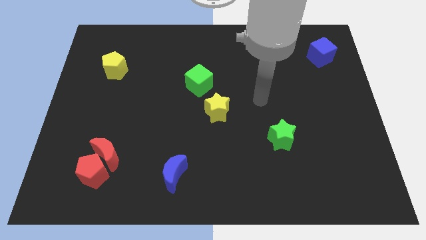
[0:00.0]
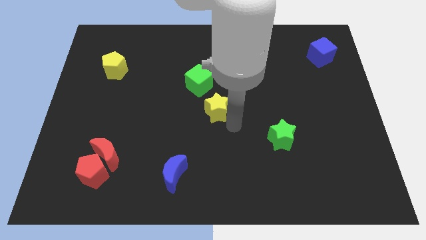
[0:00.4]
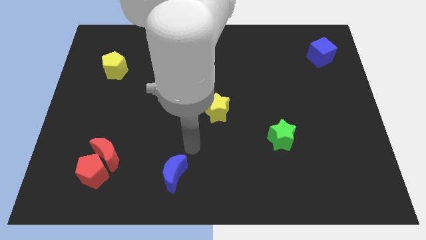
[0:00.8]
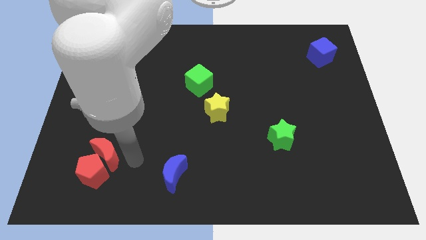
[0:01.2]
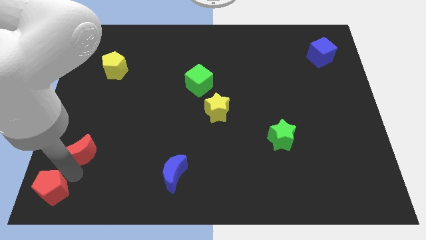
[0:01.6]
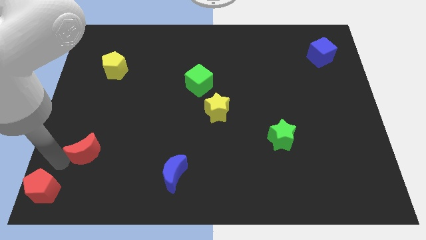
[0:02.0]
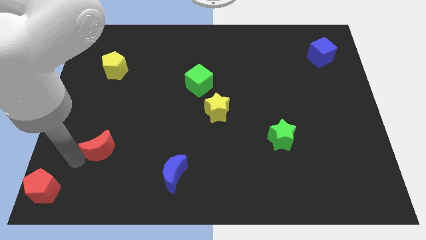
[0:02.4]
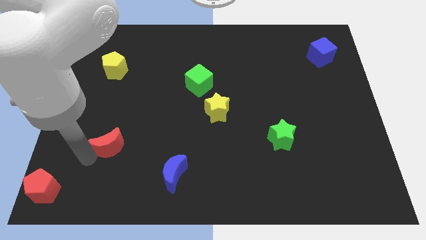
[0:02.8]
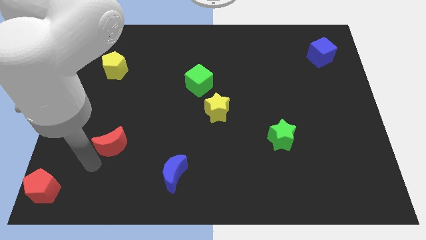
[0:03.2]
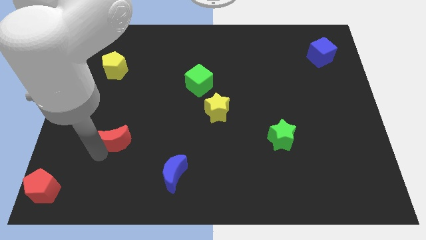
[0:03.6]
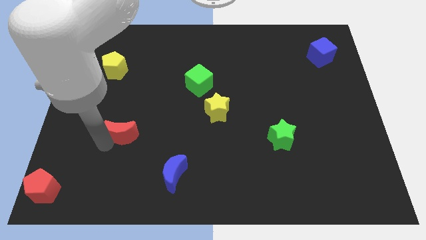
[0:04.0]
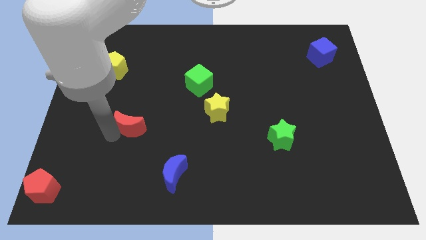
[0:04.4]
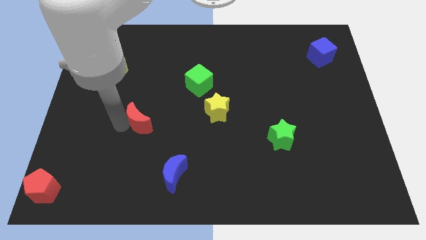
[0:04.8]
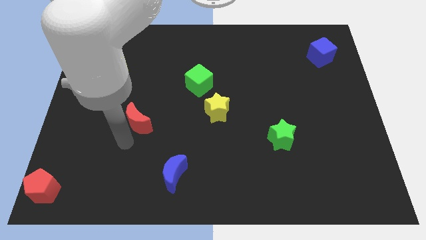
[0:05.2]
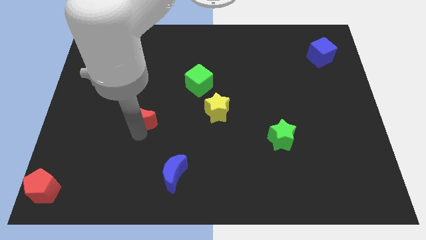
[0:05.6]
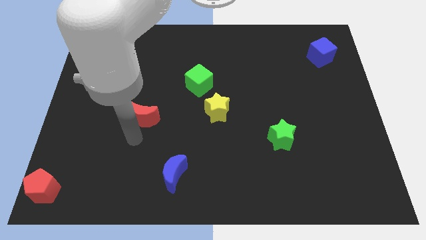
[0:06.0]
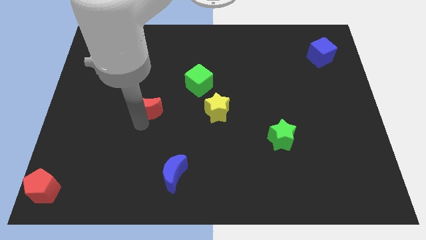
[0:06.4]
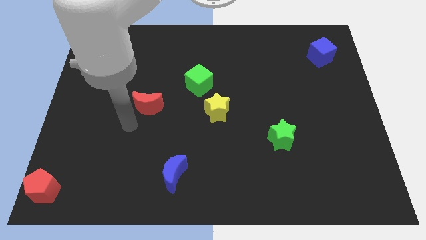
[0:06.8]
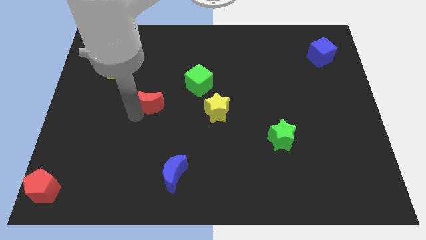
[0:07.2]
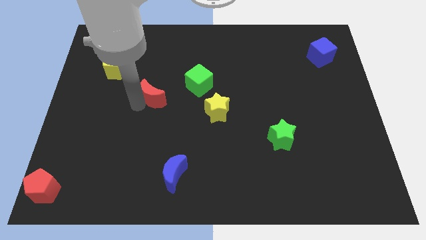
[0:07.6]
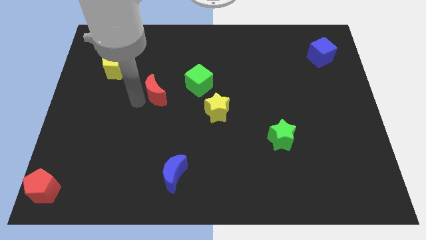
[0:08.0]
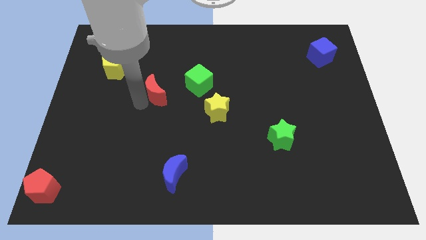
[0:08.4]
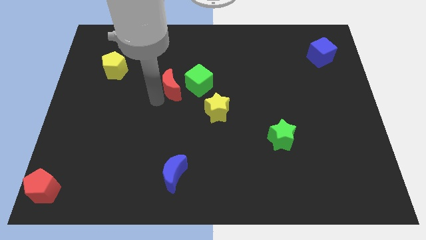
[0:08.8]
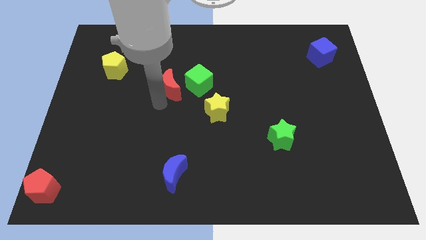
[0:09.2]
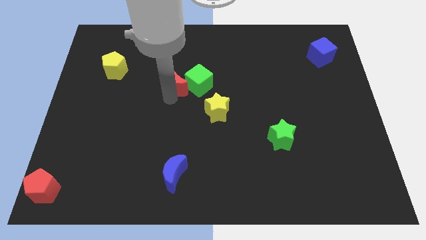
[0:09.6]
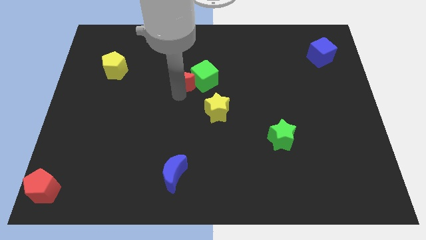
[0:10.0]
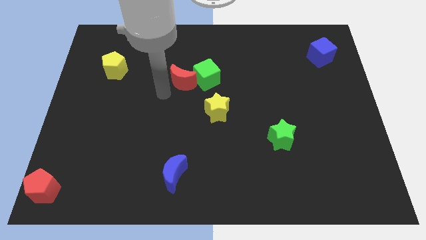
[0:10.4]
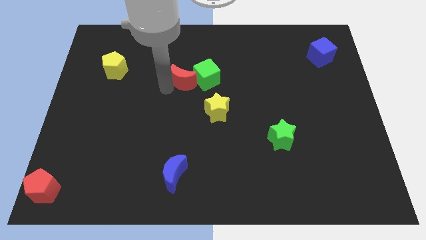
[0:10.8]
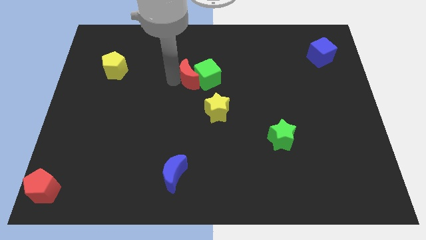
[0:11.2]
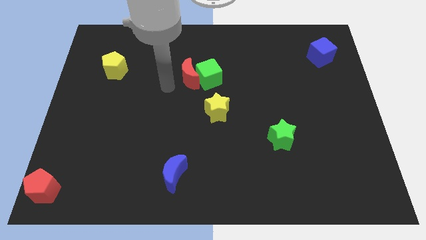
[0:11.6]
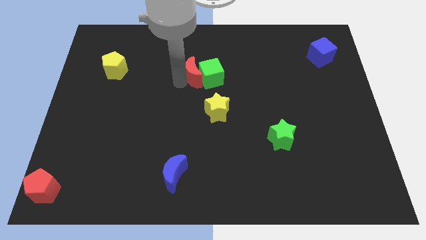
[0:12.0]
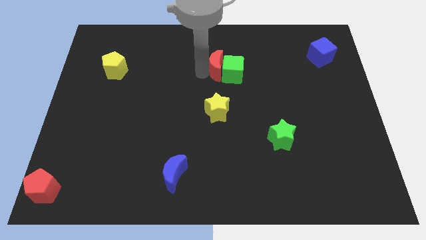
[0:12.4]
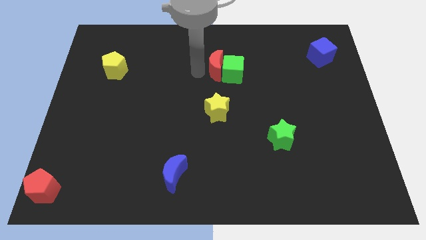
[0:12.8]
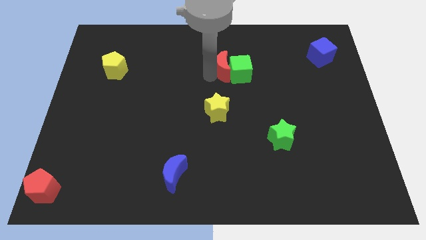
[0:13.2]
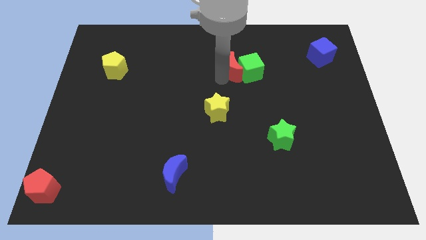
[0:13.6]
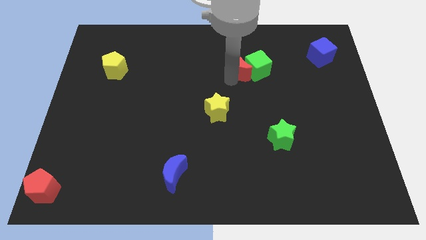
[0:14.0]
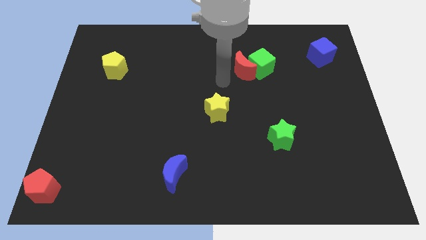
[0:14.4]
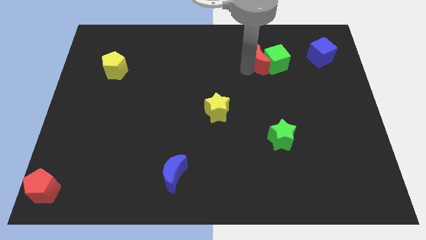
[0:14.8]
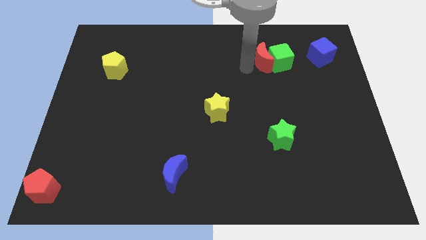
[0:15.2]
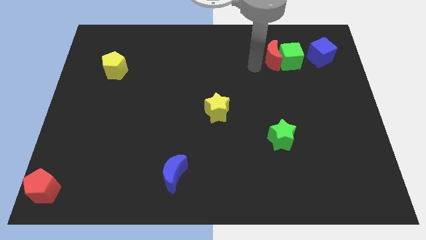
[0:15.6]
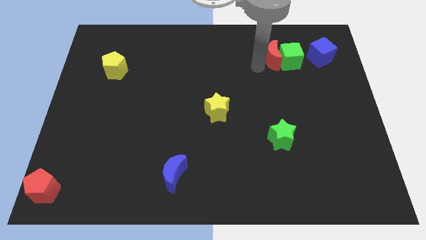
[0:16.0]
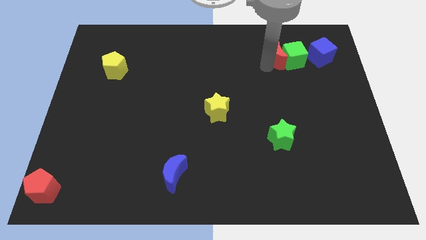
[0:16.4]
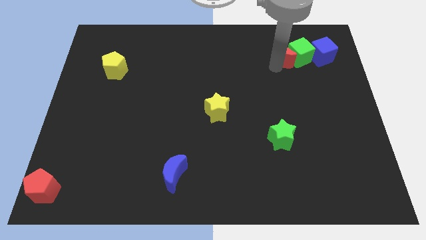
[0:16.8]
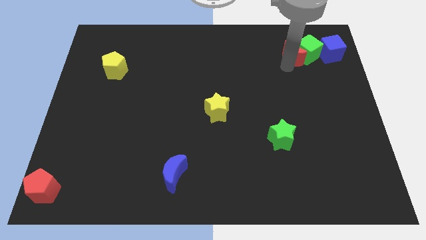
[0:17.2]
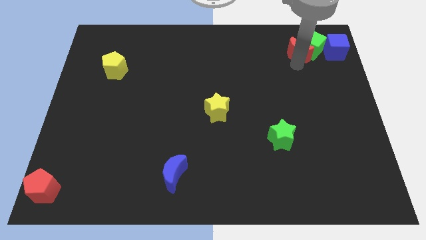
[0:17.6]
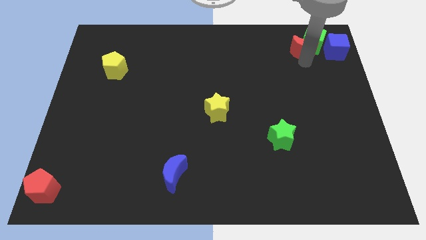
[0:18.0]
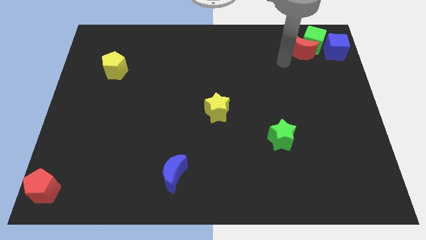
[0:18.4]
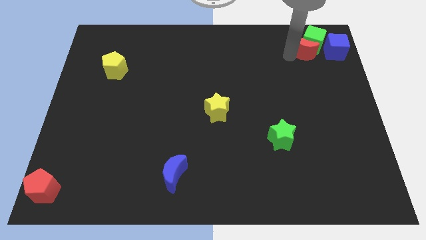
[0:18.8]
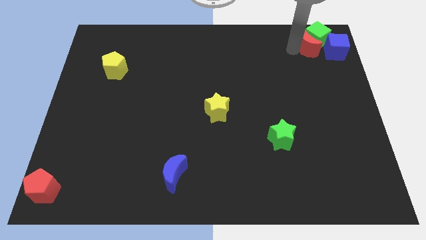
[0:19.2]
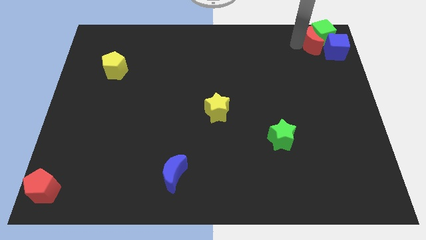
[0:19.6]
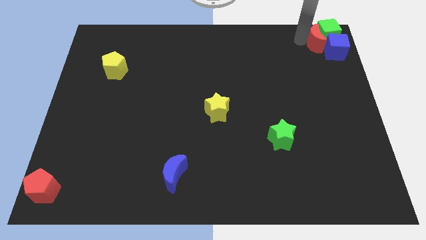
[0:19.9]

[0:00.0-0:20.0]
put the red moon to the top right corner

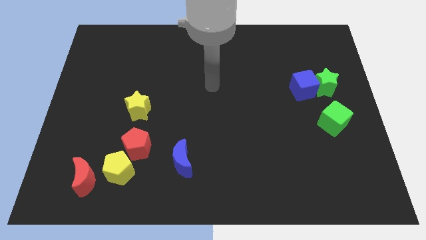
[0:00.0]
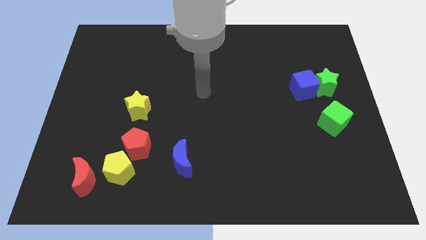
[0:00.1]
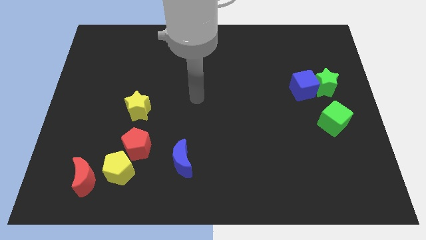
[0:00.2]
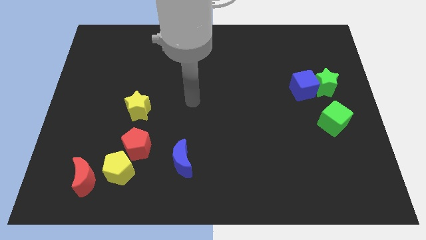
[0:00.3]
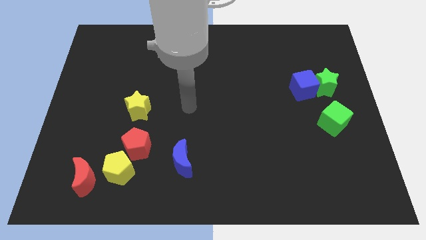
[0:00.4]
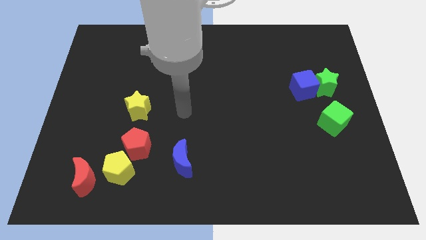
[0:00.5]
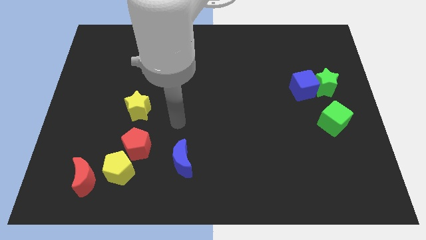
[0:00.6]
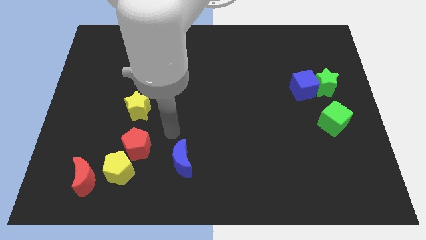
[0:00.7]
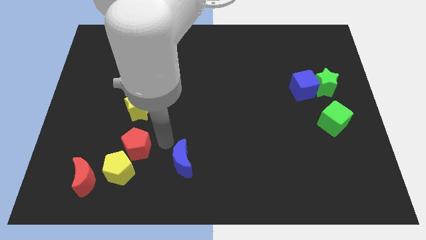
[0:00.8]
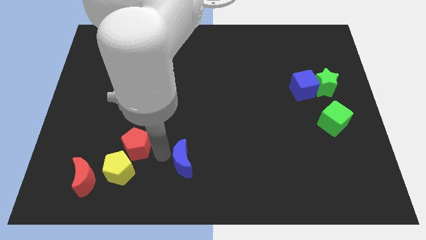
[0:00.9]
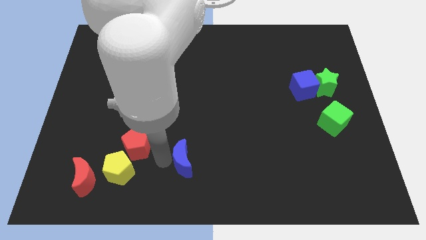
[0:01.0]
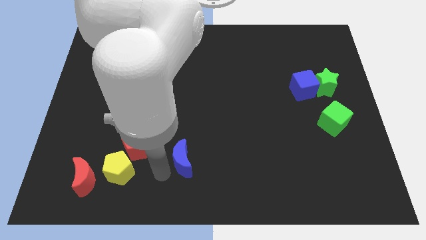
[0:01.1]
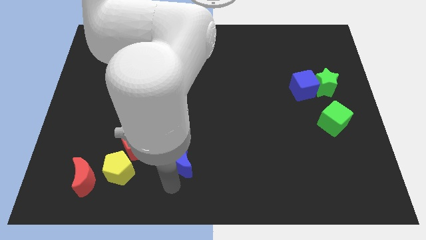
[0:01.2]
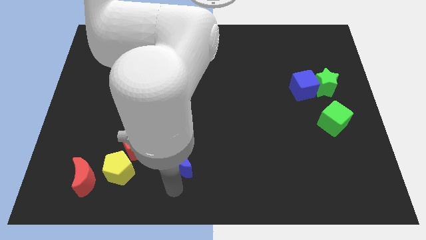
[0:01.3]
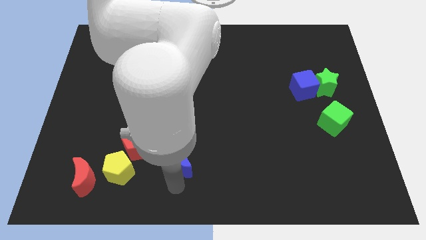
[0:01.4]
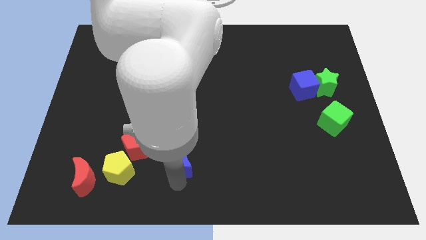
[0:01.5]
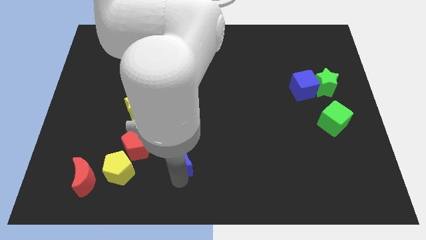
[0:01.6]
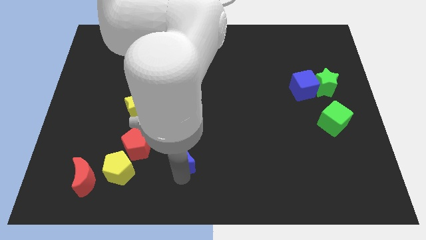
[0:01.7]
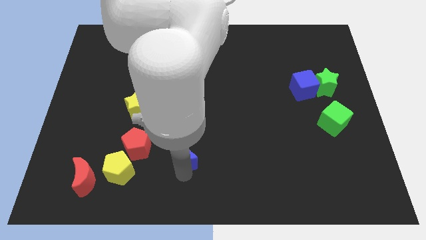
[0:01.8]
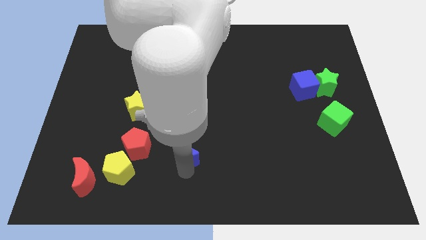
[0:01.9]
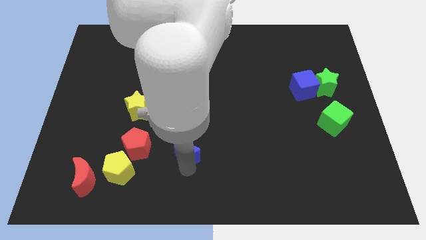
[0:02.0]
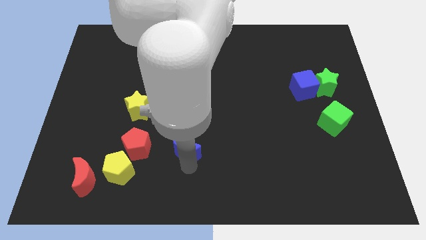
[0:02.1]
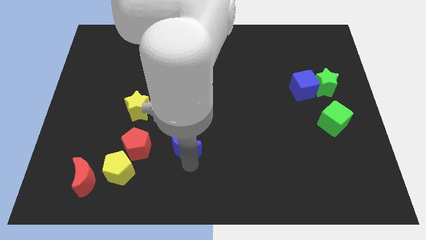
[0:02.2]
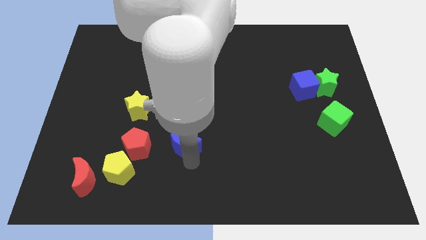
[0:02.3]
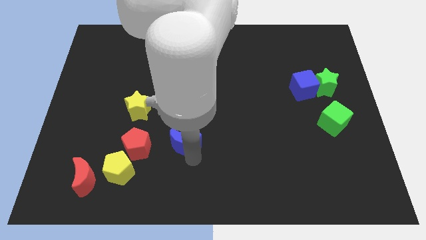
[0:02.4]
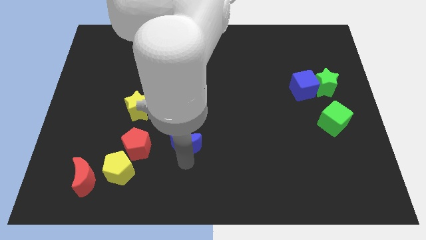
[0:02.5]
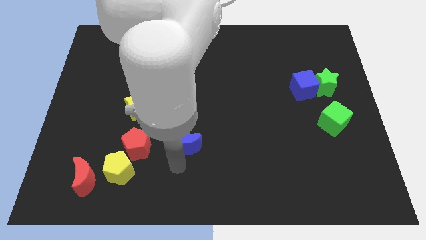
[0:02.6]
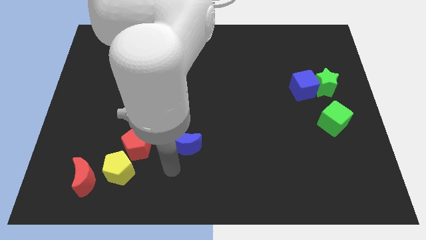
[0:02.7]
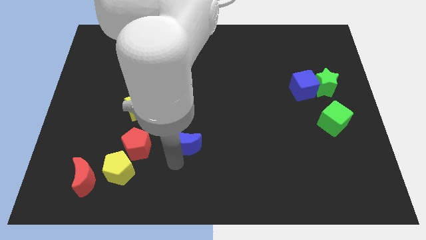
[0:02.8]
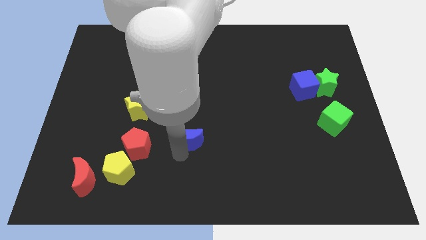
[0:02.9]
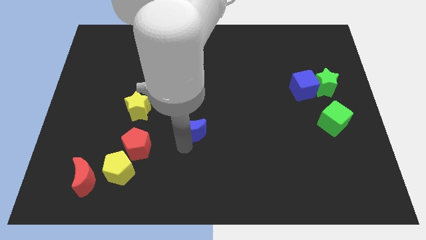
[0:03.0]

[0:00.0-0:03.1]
move the blue moon to the middle of the board
